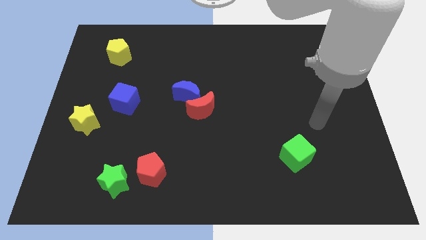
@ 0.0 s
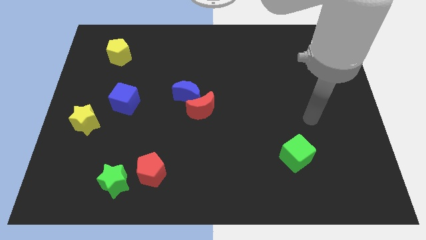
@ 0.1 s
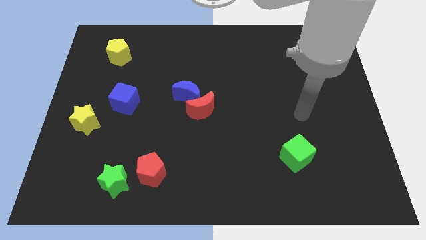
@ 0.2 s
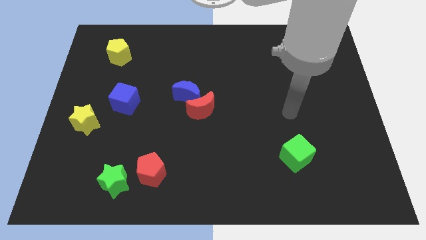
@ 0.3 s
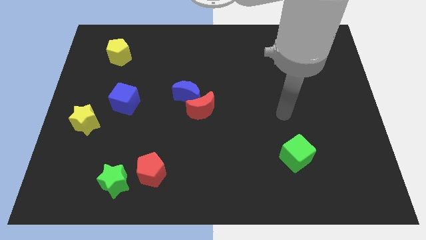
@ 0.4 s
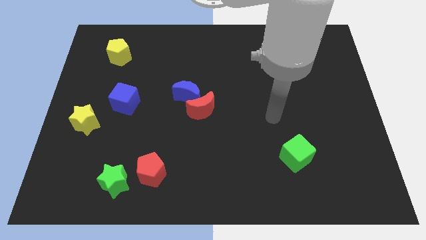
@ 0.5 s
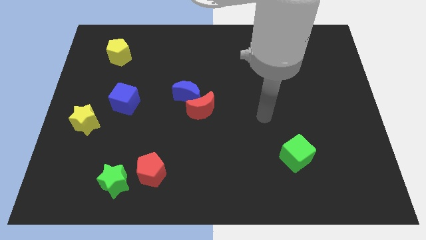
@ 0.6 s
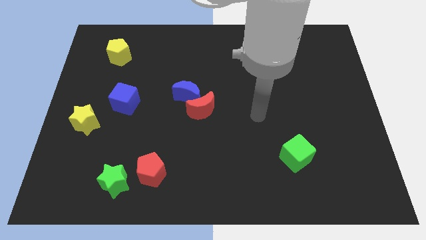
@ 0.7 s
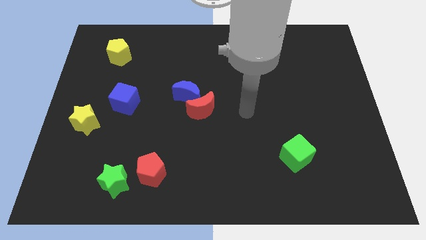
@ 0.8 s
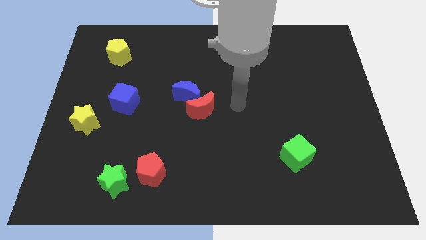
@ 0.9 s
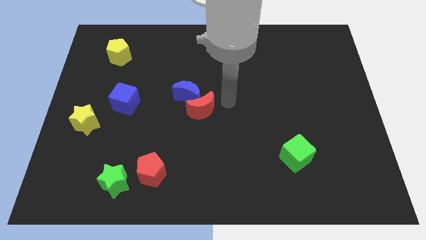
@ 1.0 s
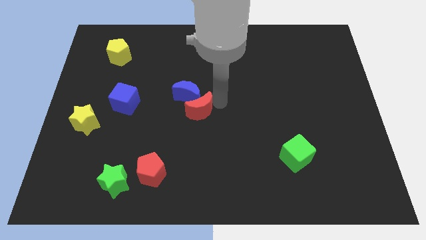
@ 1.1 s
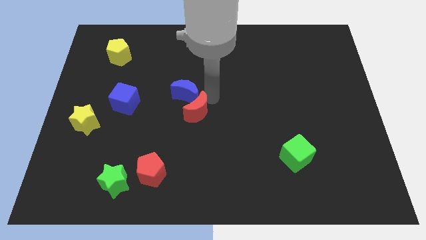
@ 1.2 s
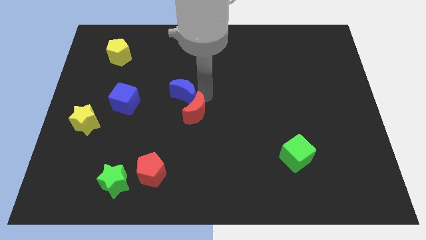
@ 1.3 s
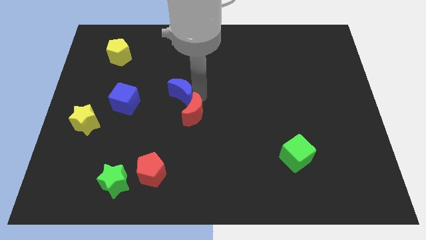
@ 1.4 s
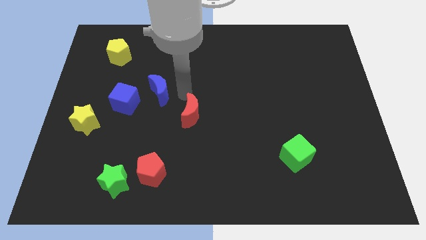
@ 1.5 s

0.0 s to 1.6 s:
separate the red moon from the blue moon

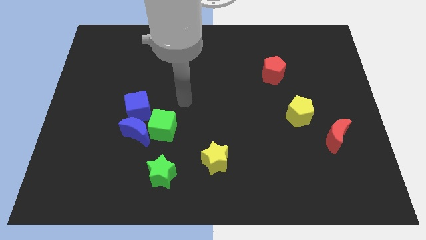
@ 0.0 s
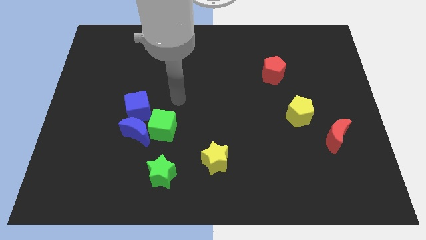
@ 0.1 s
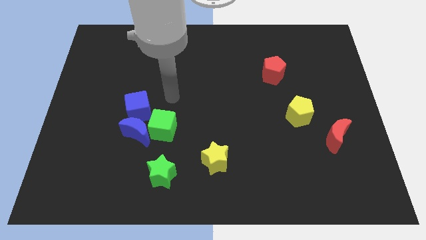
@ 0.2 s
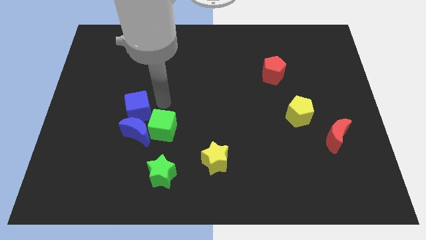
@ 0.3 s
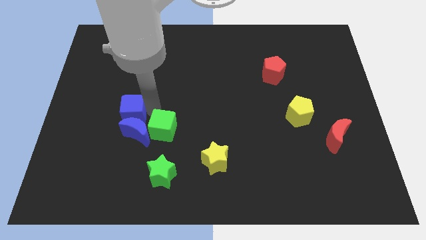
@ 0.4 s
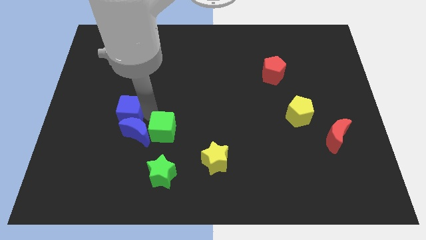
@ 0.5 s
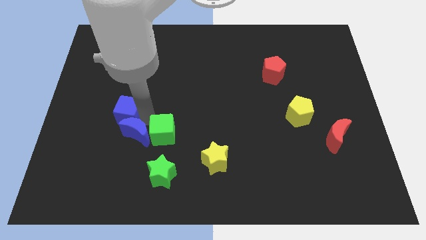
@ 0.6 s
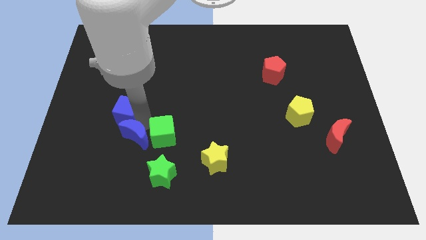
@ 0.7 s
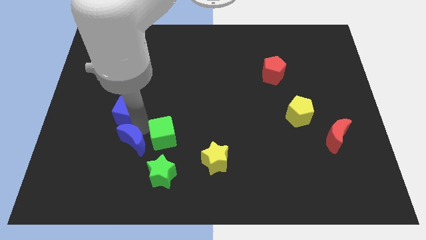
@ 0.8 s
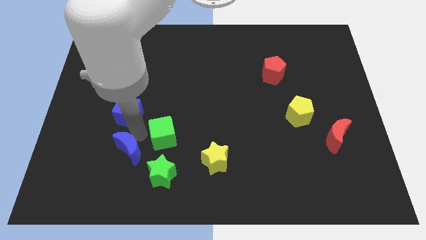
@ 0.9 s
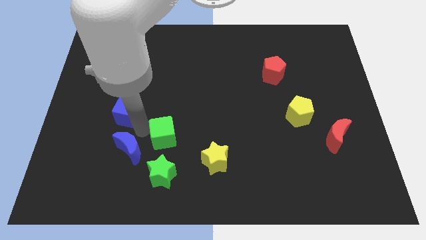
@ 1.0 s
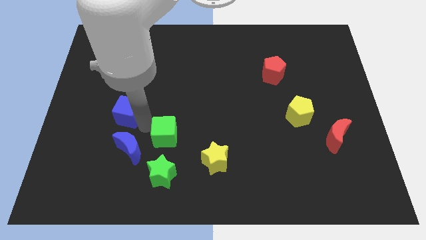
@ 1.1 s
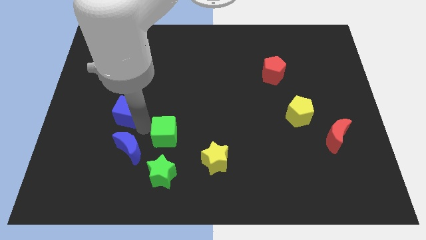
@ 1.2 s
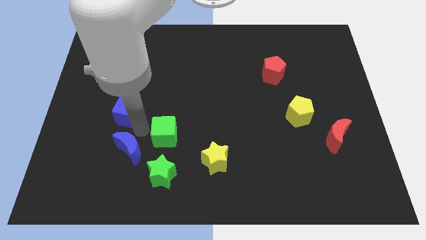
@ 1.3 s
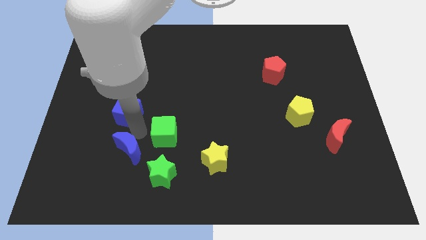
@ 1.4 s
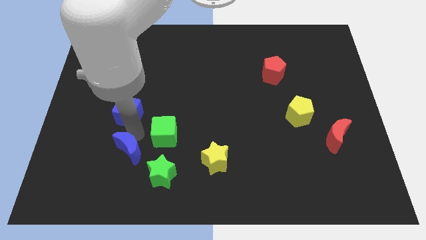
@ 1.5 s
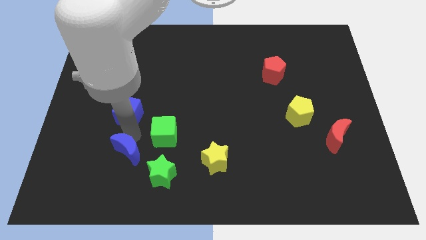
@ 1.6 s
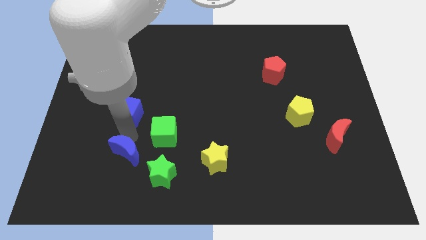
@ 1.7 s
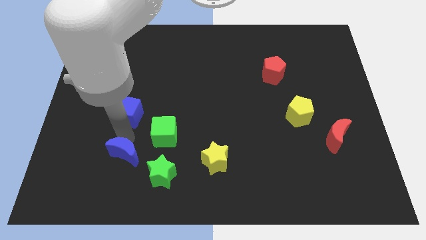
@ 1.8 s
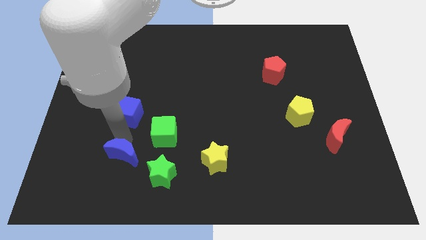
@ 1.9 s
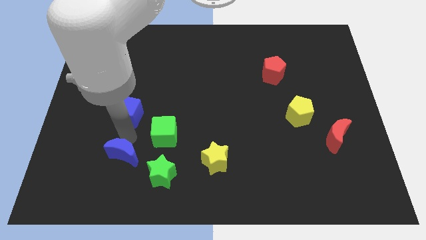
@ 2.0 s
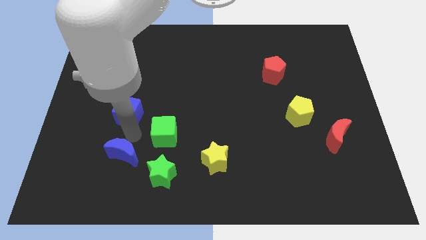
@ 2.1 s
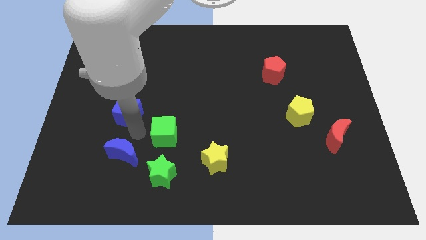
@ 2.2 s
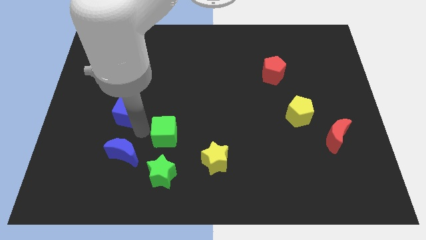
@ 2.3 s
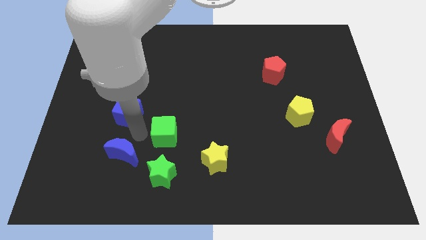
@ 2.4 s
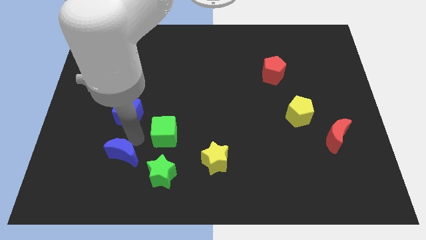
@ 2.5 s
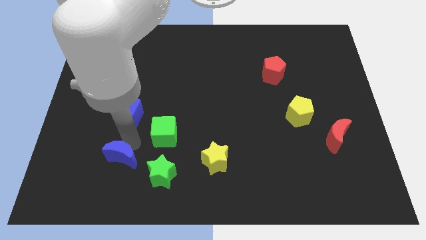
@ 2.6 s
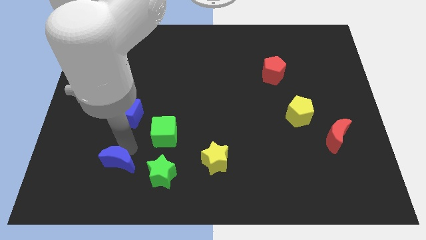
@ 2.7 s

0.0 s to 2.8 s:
separate the blue moon from the green cube and blue cube

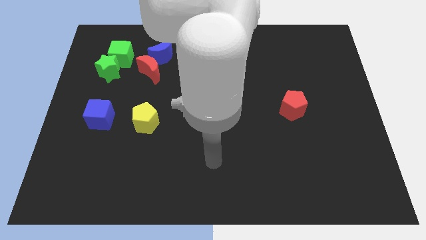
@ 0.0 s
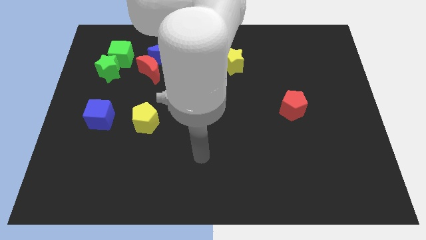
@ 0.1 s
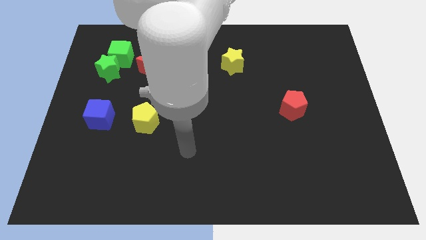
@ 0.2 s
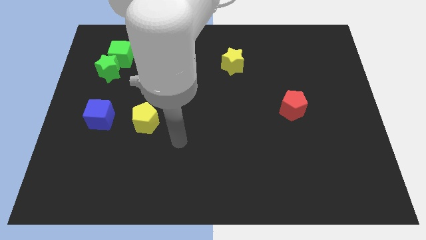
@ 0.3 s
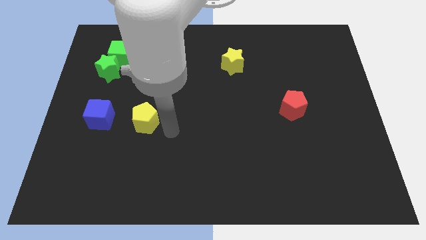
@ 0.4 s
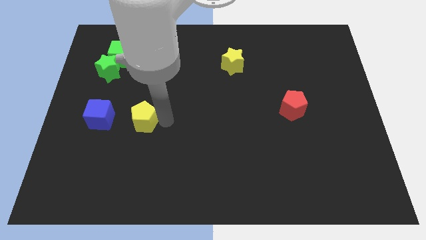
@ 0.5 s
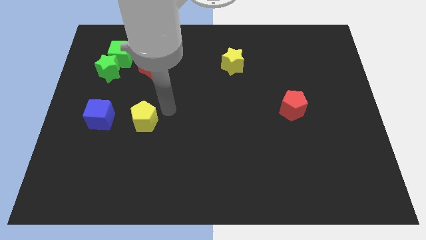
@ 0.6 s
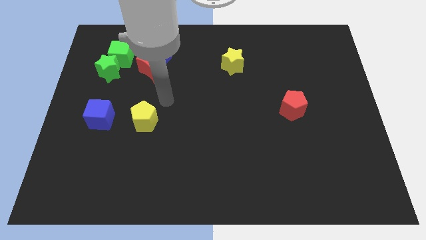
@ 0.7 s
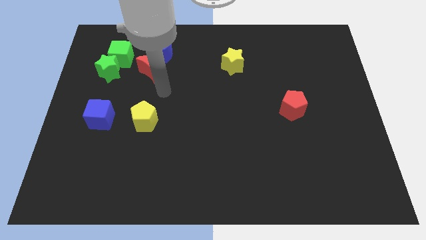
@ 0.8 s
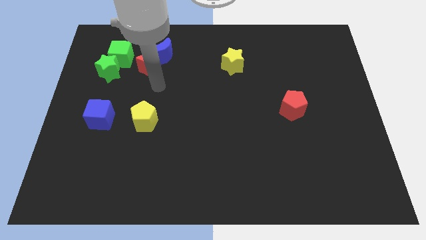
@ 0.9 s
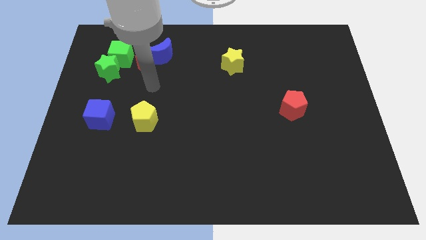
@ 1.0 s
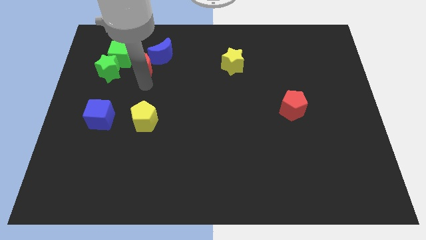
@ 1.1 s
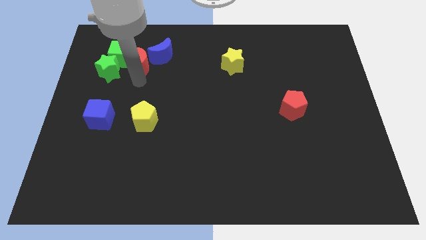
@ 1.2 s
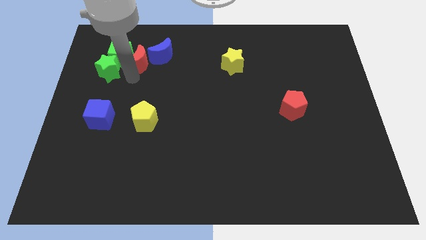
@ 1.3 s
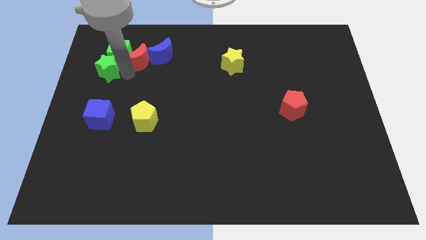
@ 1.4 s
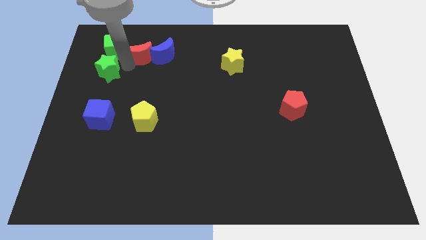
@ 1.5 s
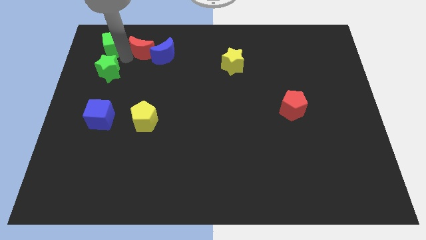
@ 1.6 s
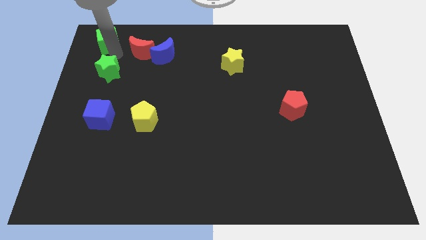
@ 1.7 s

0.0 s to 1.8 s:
move the green star away from the green cube

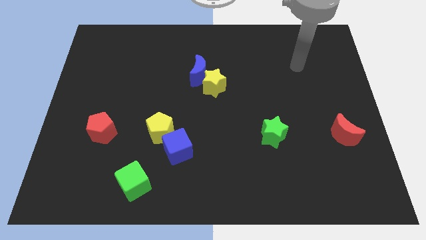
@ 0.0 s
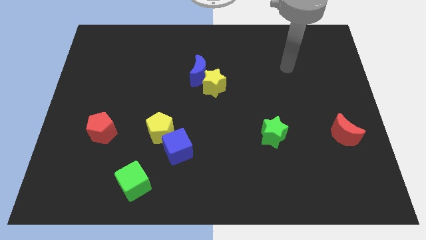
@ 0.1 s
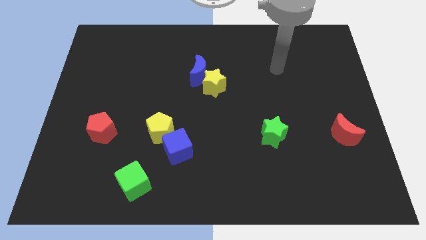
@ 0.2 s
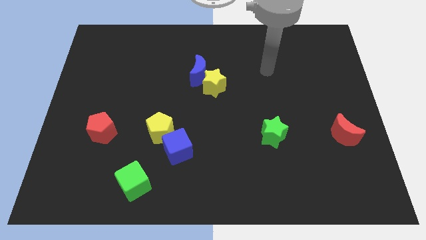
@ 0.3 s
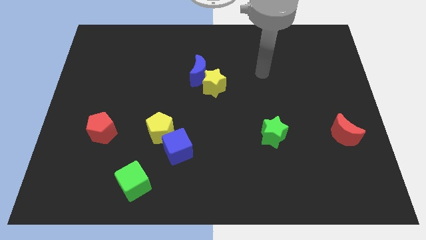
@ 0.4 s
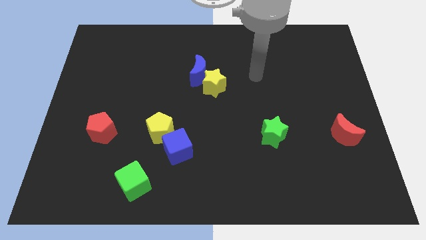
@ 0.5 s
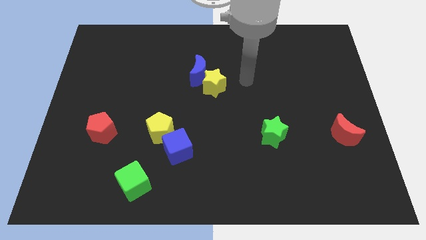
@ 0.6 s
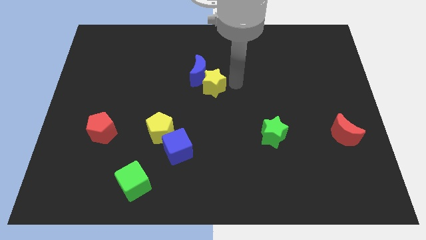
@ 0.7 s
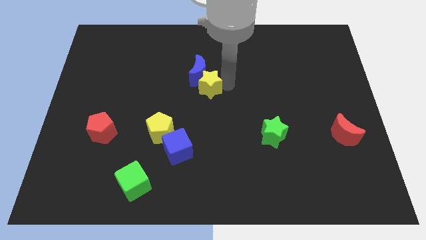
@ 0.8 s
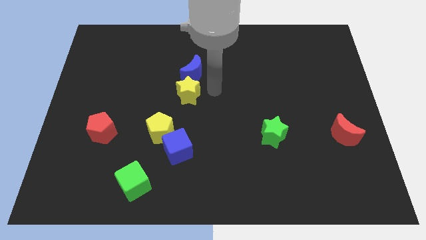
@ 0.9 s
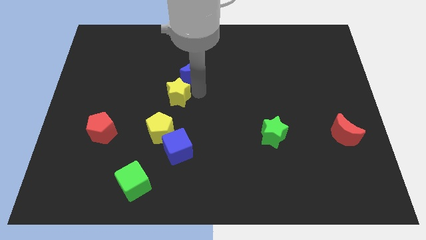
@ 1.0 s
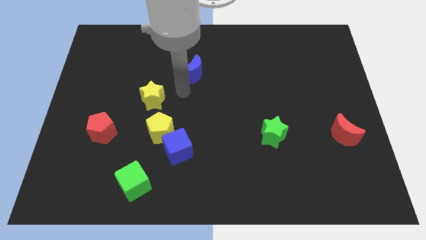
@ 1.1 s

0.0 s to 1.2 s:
move the blue moon away from the yellow star

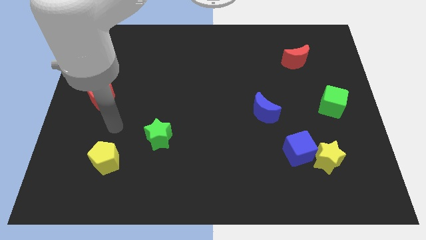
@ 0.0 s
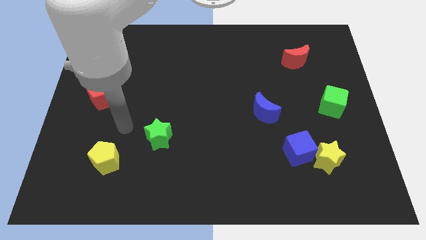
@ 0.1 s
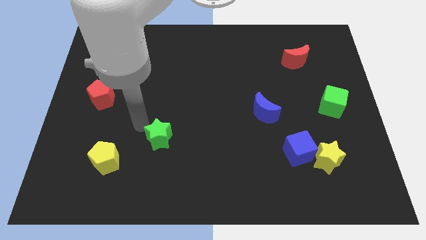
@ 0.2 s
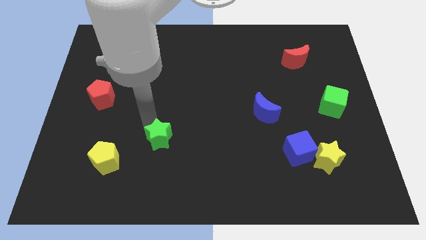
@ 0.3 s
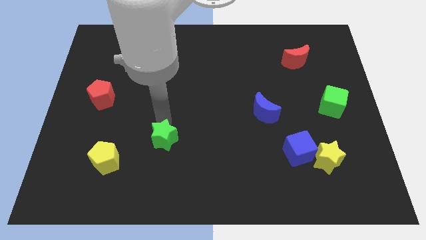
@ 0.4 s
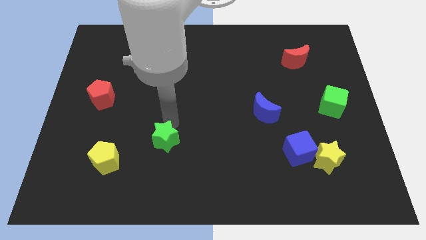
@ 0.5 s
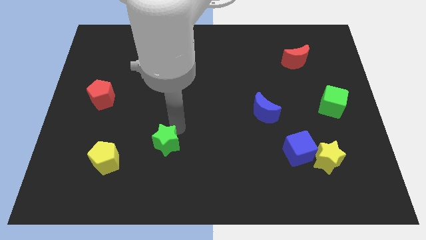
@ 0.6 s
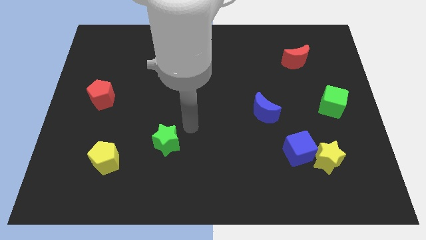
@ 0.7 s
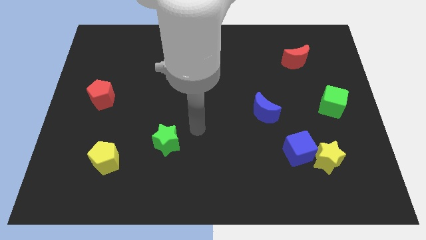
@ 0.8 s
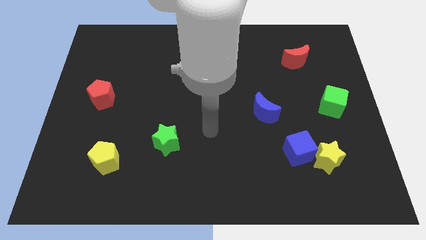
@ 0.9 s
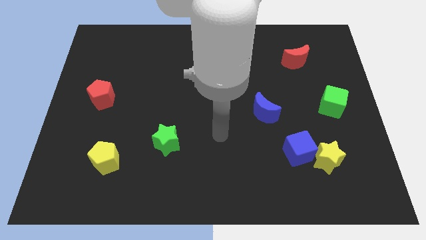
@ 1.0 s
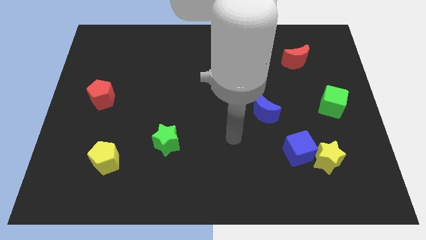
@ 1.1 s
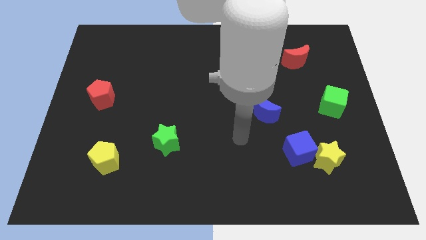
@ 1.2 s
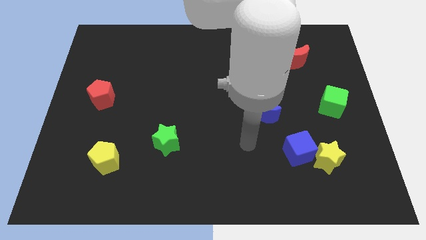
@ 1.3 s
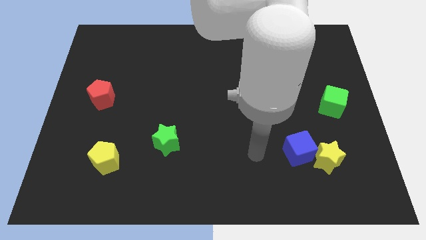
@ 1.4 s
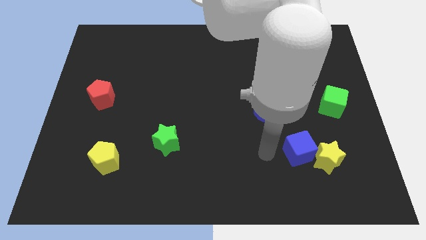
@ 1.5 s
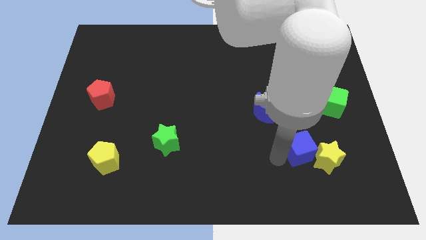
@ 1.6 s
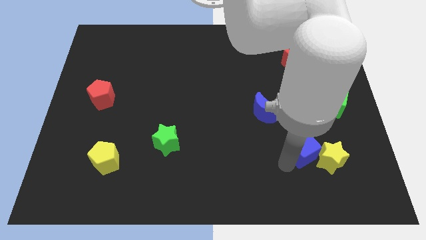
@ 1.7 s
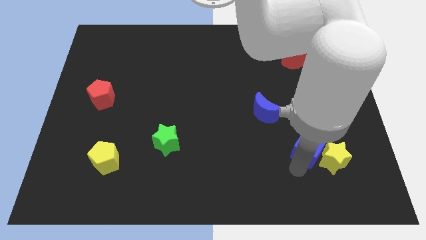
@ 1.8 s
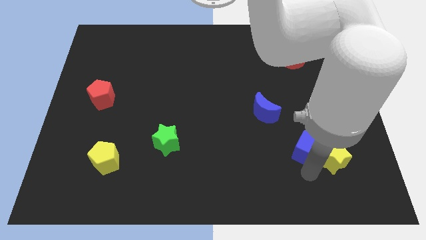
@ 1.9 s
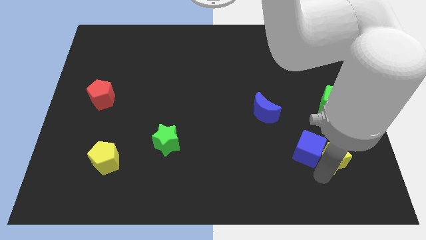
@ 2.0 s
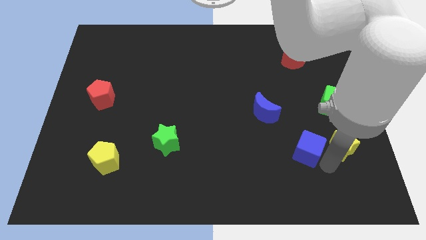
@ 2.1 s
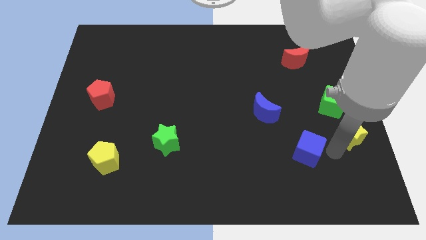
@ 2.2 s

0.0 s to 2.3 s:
separate the blue cube from the yellow star
